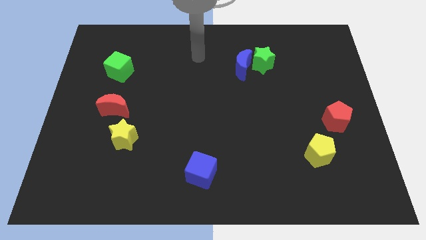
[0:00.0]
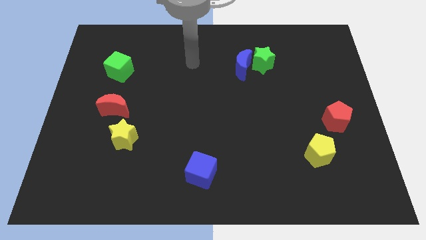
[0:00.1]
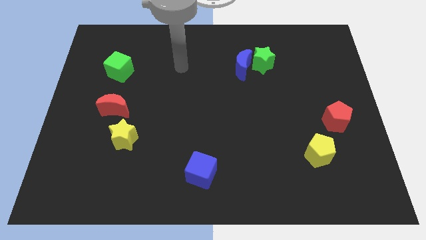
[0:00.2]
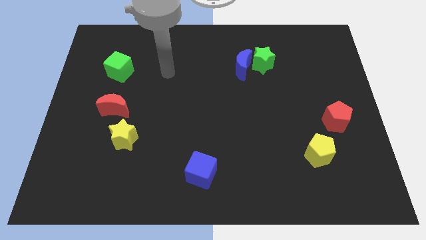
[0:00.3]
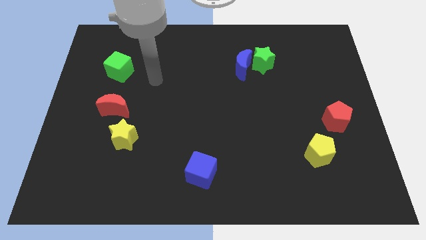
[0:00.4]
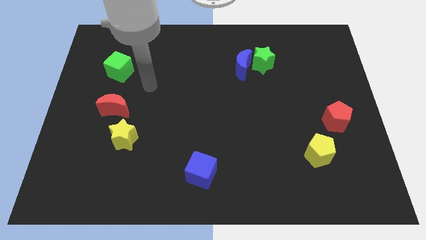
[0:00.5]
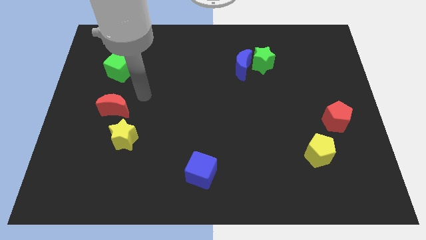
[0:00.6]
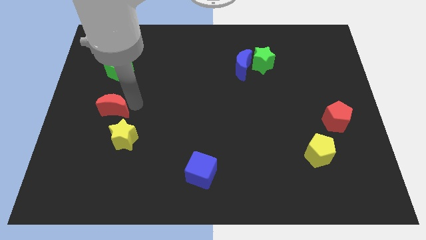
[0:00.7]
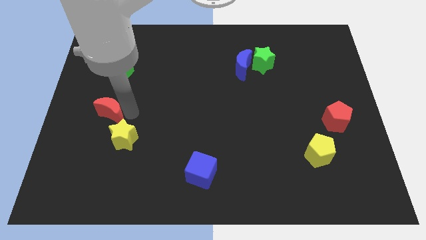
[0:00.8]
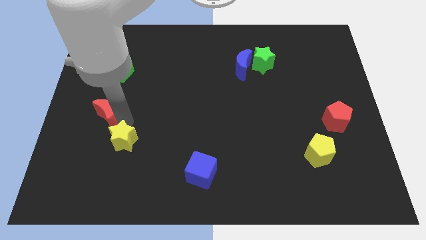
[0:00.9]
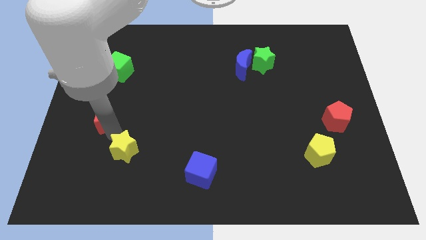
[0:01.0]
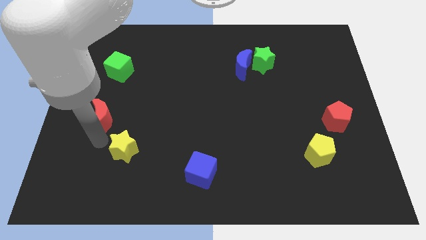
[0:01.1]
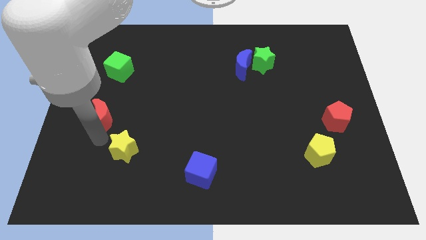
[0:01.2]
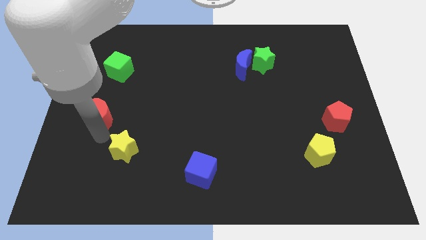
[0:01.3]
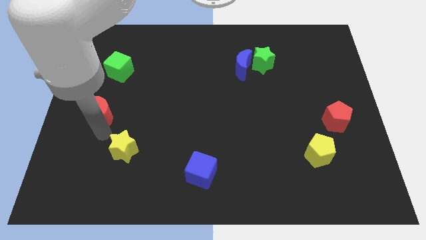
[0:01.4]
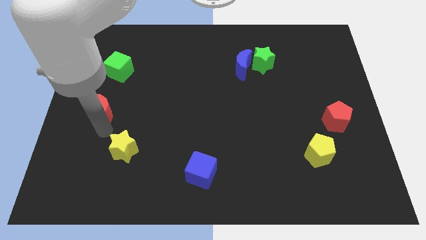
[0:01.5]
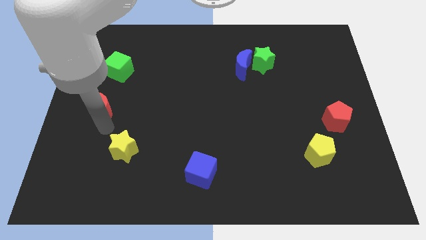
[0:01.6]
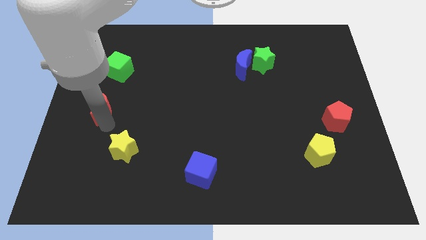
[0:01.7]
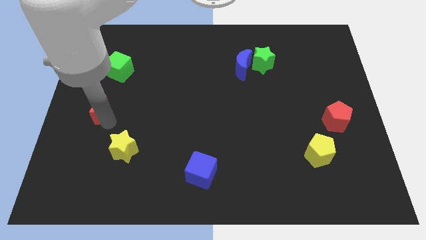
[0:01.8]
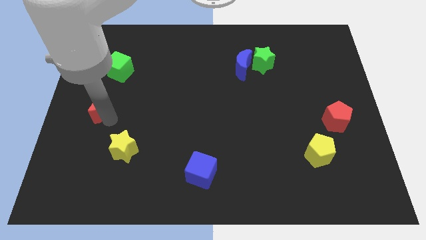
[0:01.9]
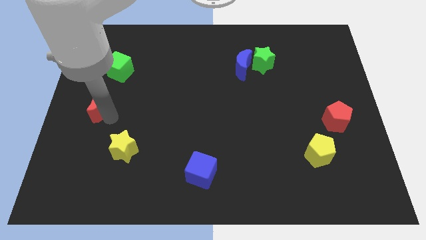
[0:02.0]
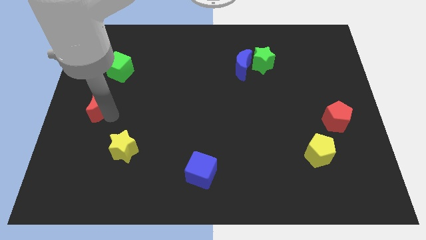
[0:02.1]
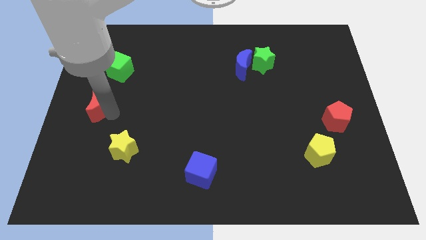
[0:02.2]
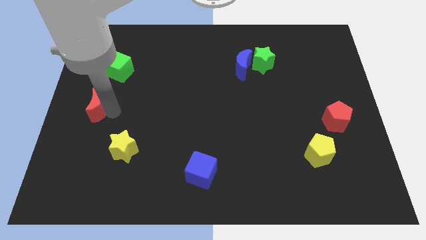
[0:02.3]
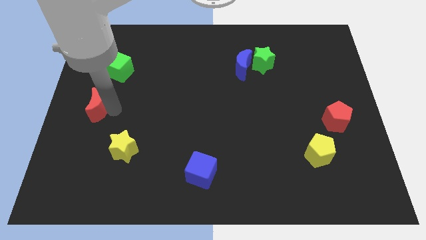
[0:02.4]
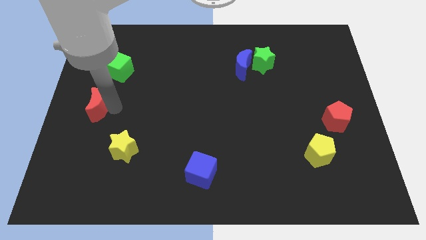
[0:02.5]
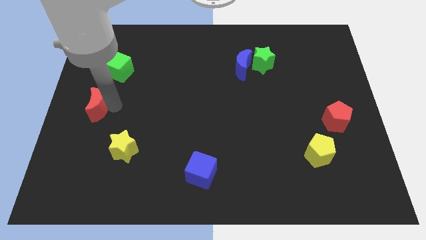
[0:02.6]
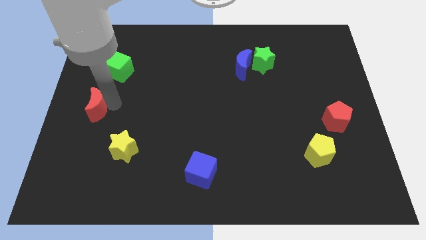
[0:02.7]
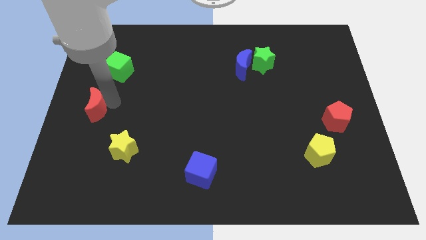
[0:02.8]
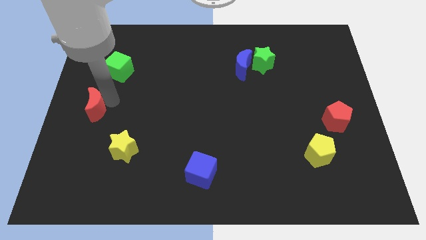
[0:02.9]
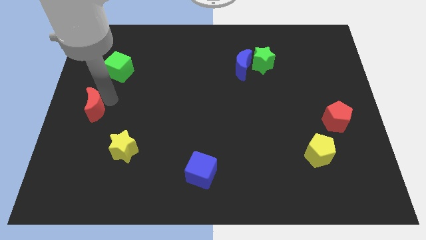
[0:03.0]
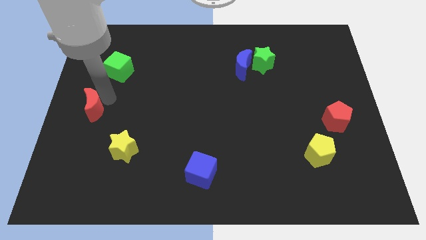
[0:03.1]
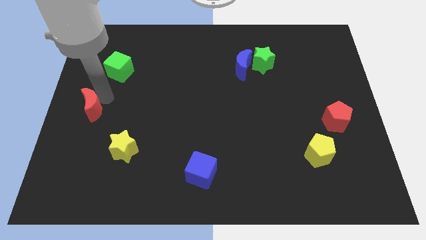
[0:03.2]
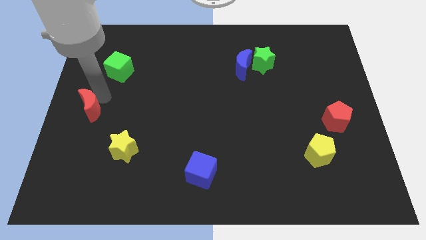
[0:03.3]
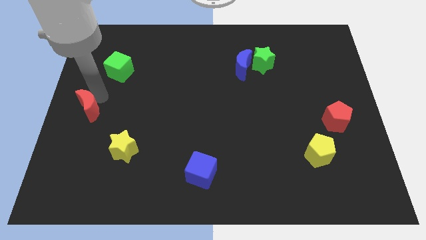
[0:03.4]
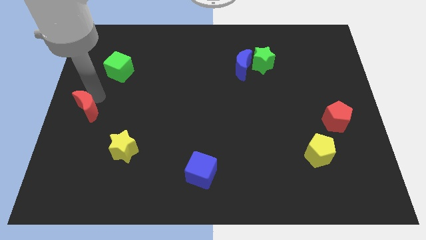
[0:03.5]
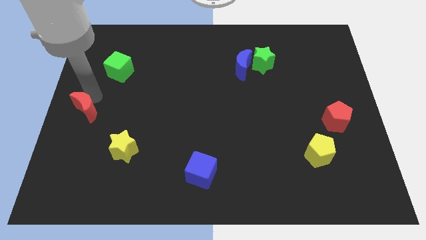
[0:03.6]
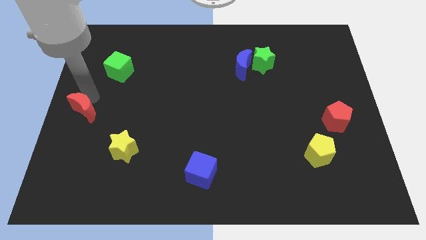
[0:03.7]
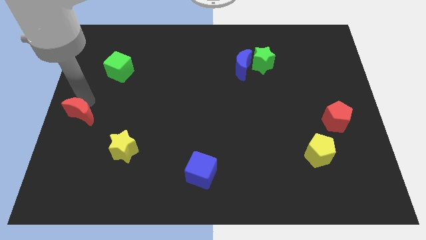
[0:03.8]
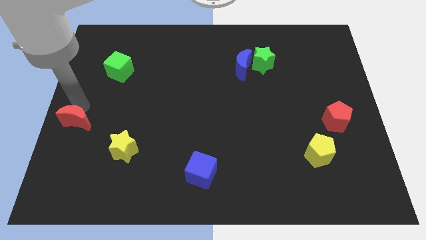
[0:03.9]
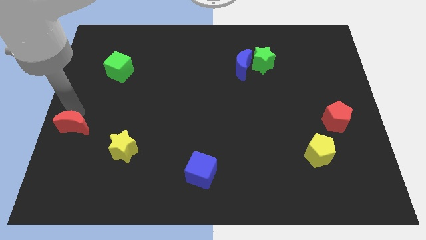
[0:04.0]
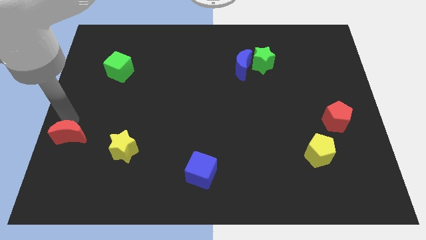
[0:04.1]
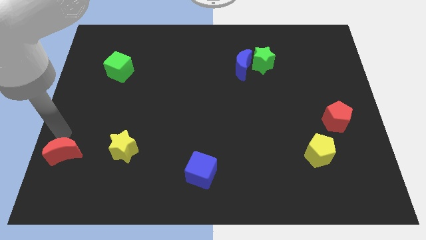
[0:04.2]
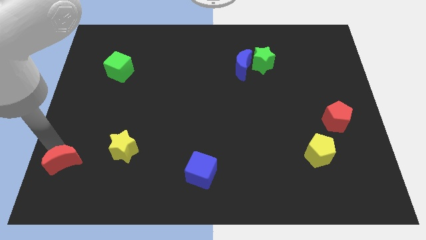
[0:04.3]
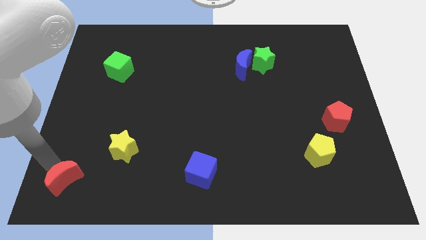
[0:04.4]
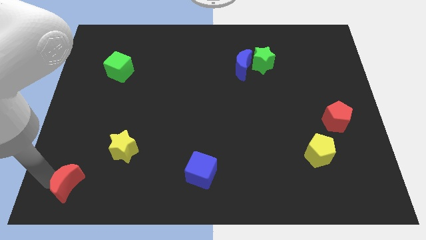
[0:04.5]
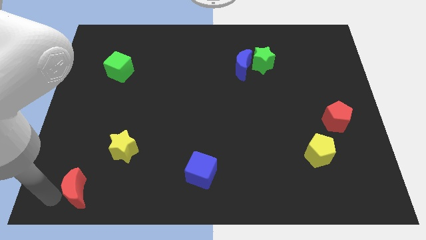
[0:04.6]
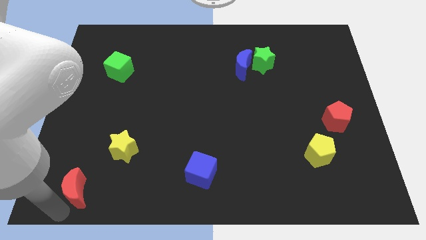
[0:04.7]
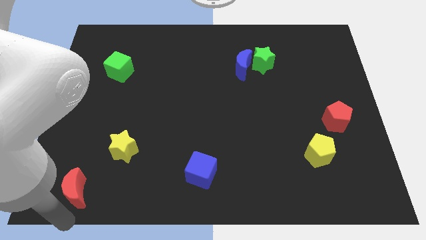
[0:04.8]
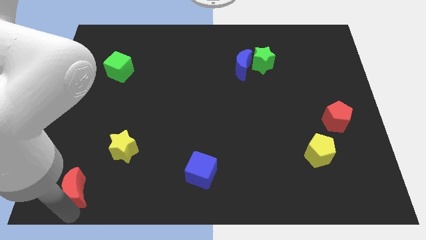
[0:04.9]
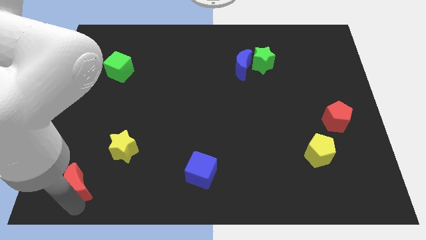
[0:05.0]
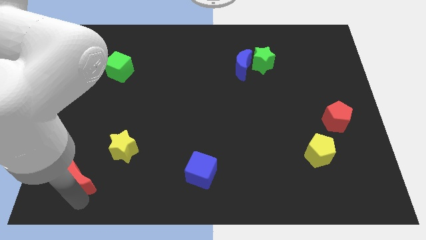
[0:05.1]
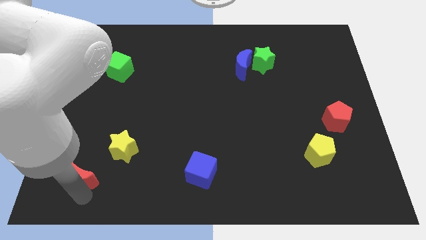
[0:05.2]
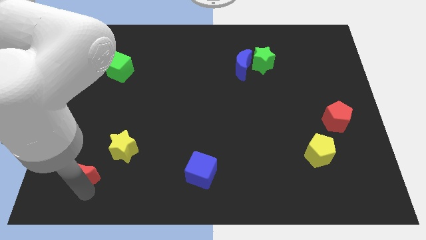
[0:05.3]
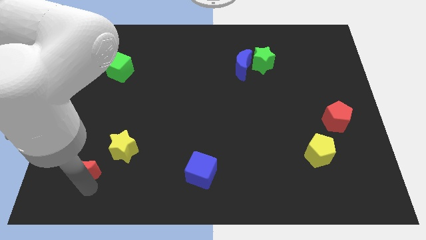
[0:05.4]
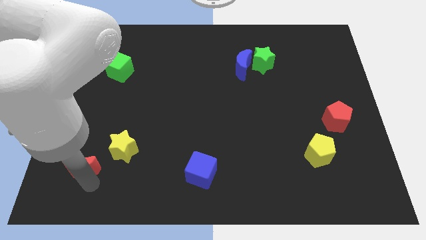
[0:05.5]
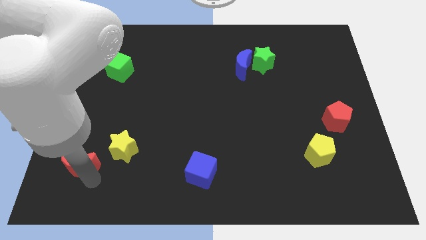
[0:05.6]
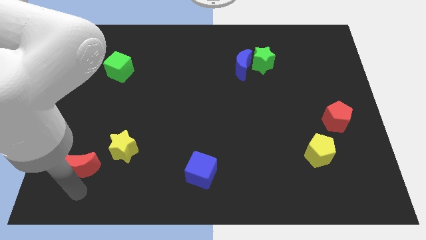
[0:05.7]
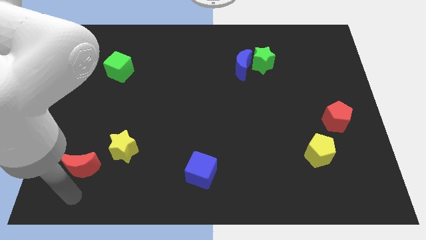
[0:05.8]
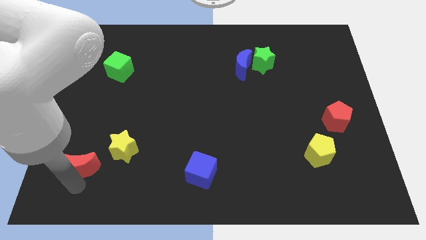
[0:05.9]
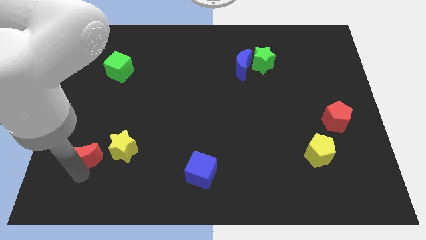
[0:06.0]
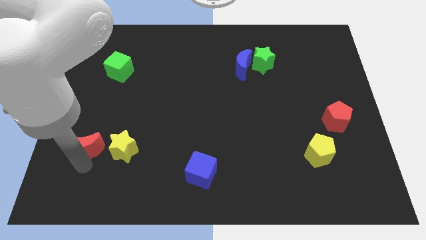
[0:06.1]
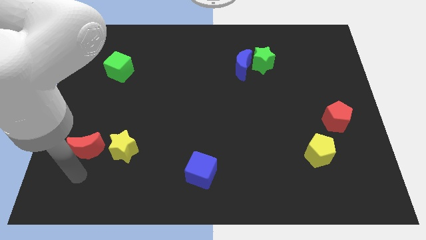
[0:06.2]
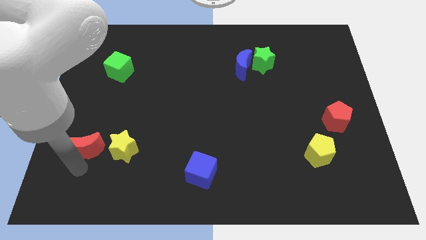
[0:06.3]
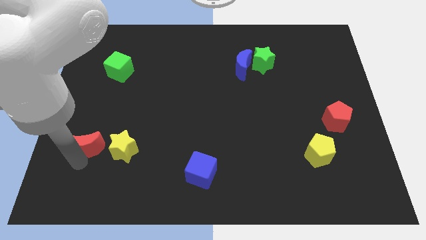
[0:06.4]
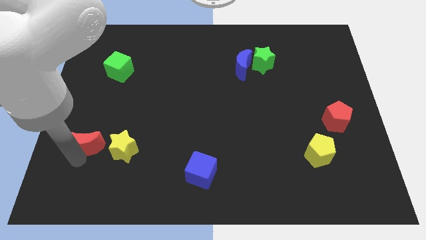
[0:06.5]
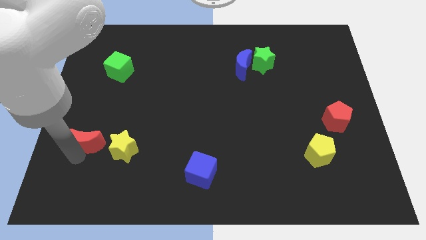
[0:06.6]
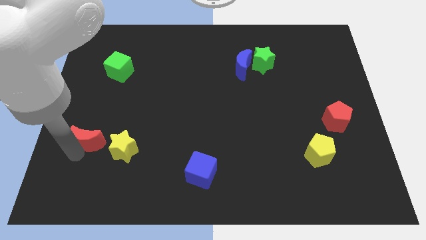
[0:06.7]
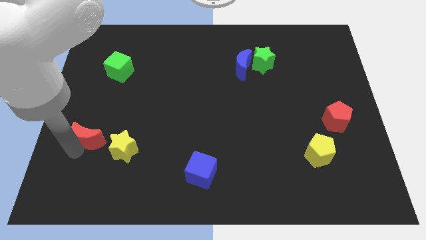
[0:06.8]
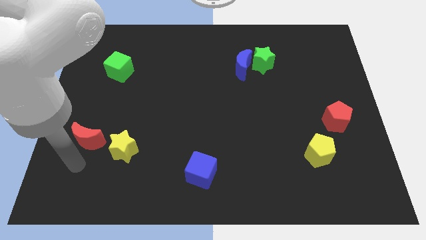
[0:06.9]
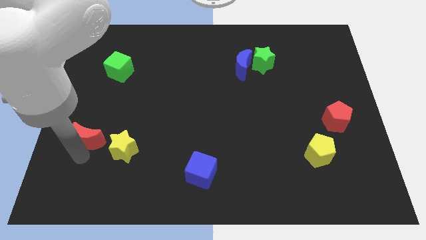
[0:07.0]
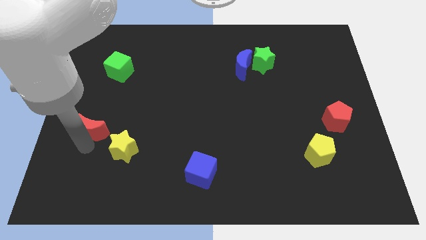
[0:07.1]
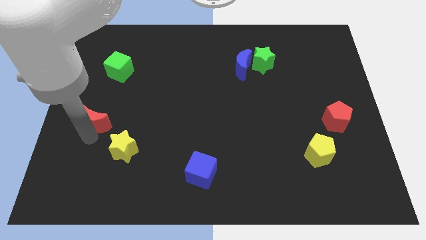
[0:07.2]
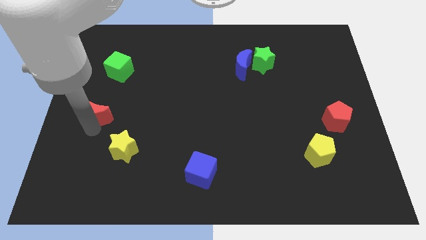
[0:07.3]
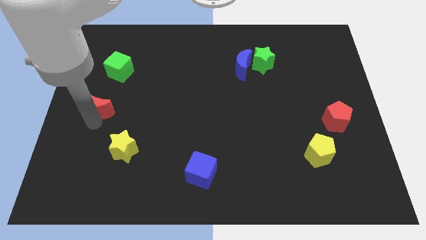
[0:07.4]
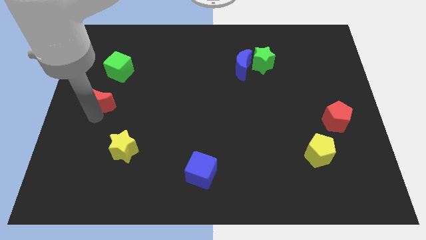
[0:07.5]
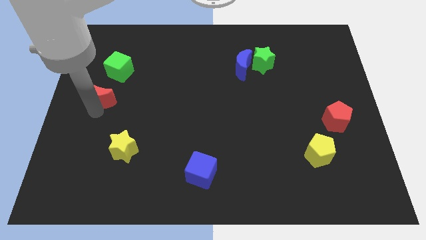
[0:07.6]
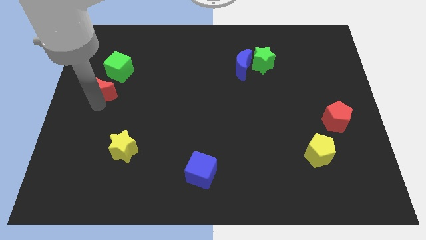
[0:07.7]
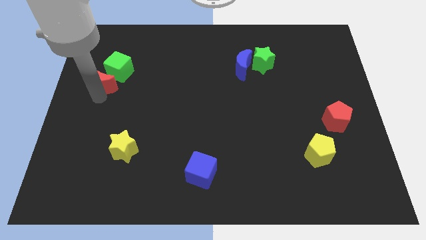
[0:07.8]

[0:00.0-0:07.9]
push the red moon to the green cube
